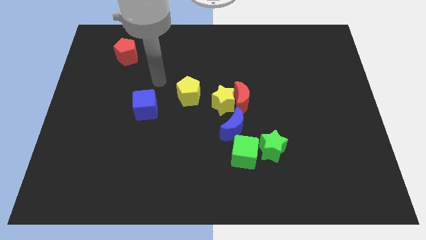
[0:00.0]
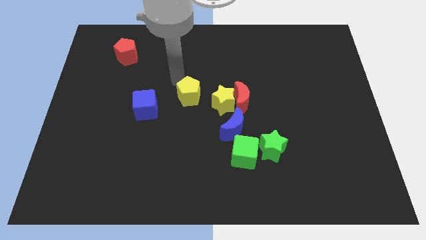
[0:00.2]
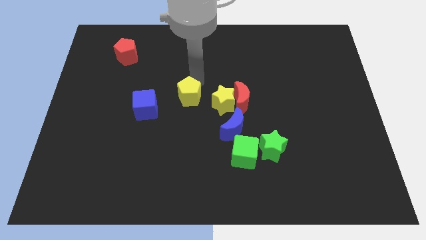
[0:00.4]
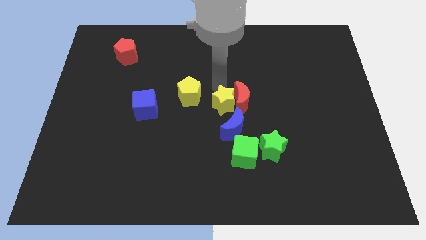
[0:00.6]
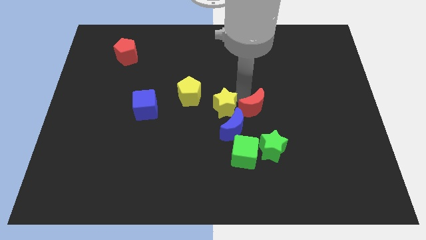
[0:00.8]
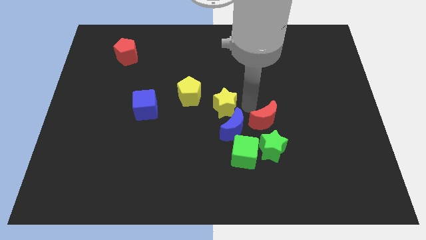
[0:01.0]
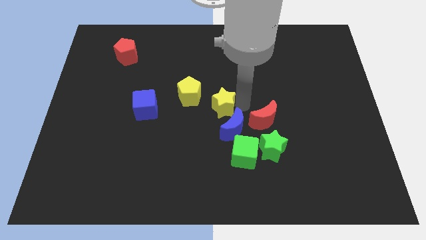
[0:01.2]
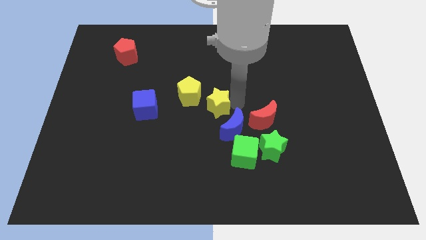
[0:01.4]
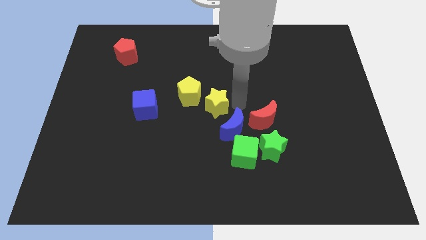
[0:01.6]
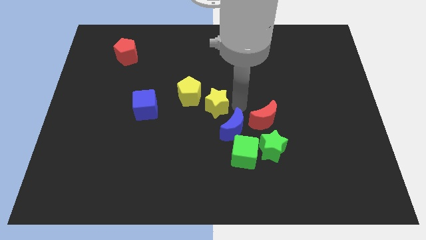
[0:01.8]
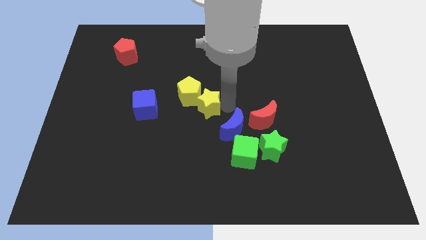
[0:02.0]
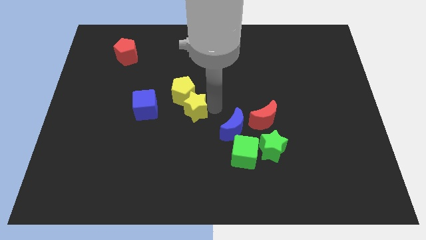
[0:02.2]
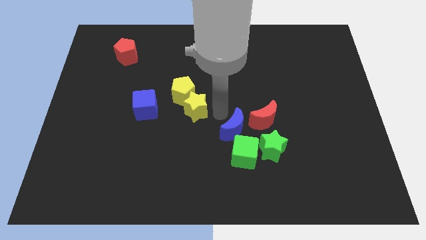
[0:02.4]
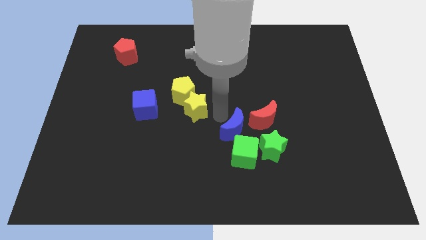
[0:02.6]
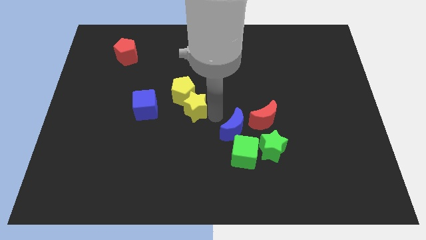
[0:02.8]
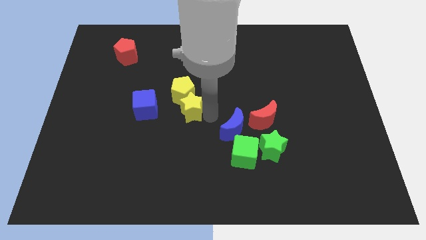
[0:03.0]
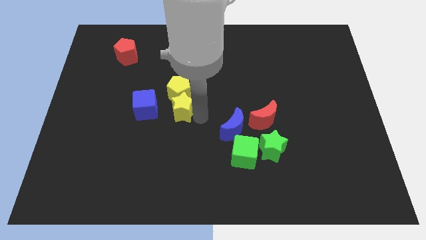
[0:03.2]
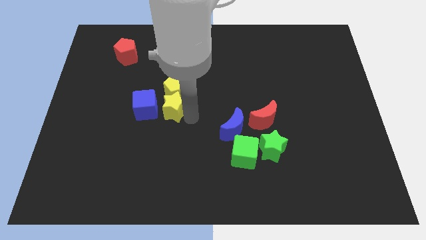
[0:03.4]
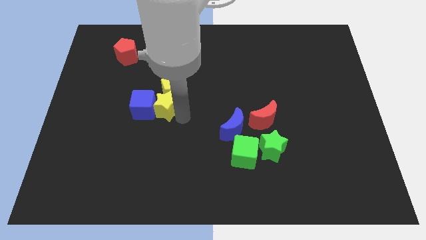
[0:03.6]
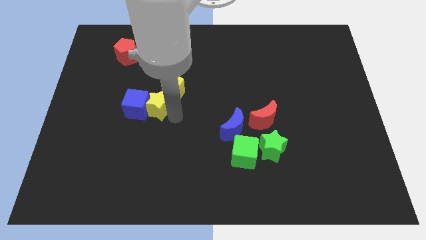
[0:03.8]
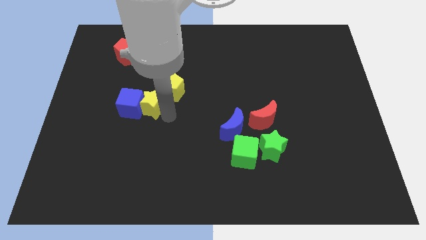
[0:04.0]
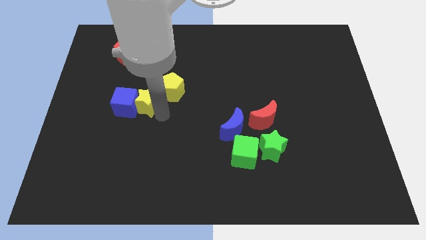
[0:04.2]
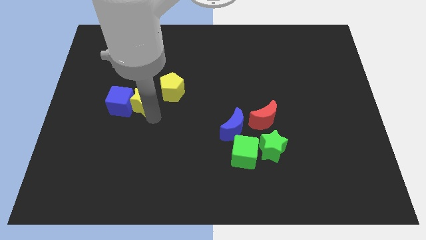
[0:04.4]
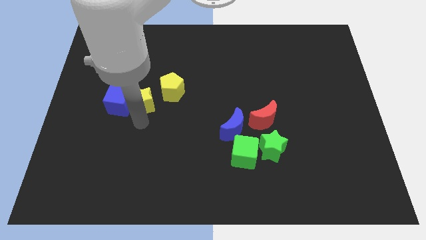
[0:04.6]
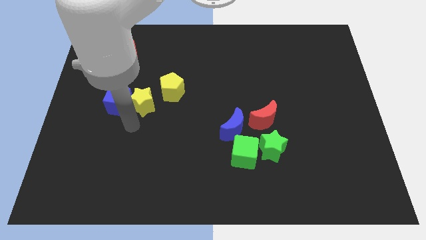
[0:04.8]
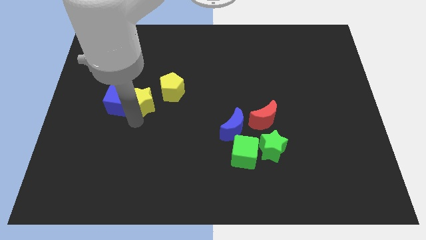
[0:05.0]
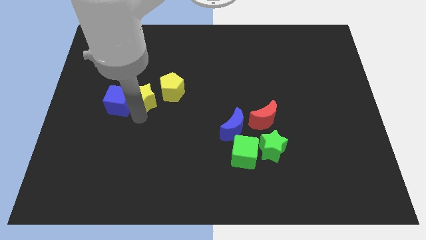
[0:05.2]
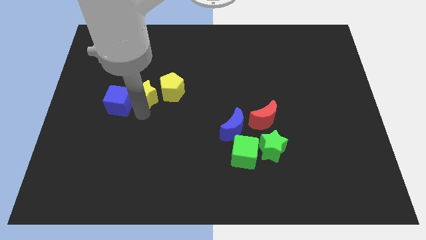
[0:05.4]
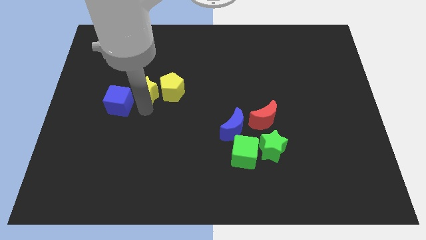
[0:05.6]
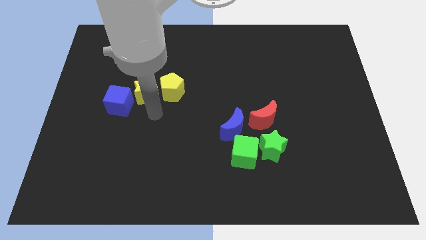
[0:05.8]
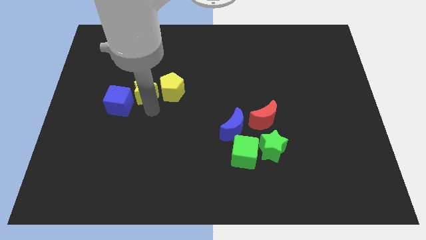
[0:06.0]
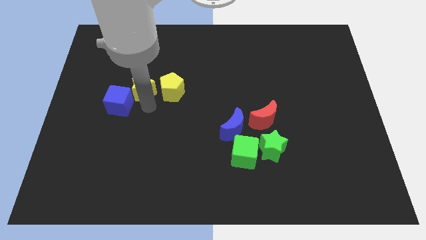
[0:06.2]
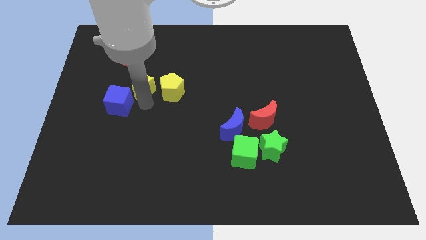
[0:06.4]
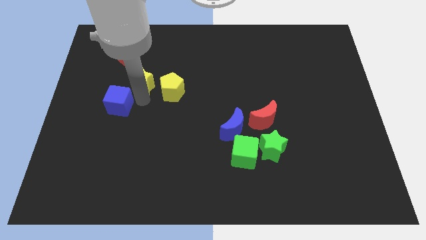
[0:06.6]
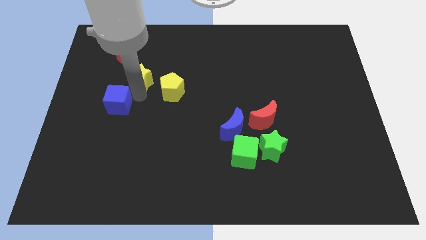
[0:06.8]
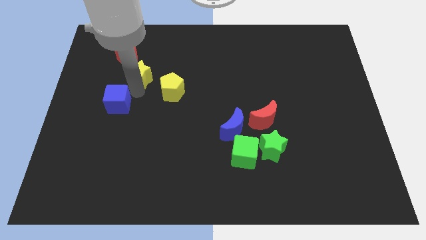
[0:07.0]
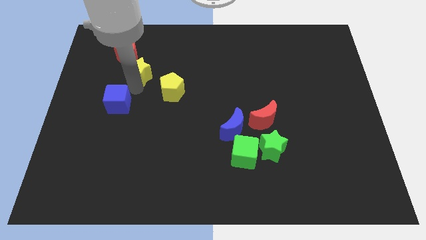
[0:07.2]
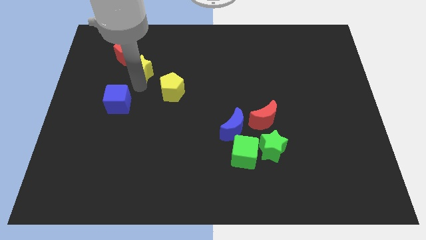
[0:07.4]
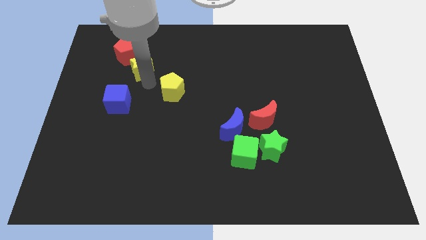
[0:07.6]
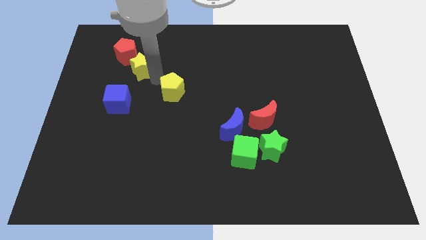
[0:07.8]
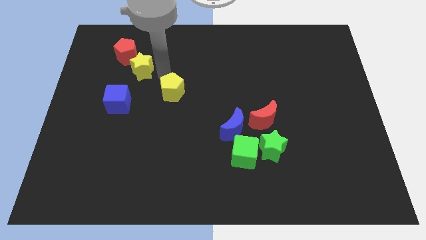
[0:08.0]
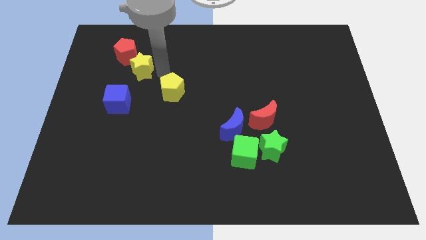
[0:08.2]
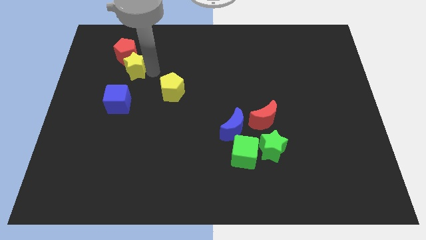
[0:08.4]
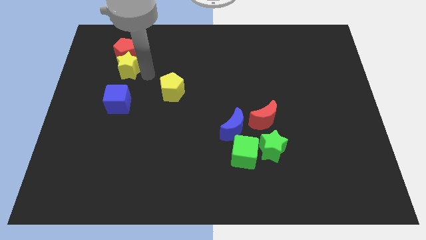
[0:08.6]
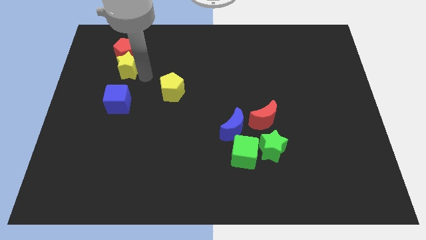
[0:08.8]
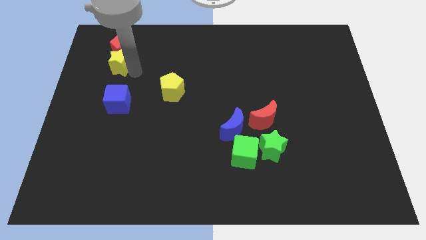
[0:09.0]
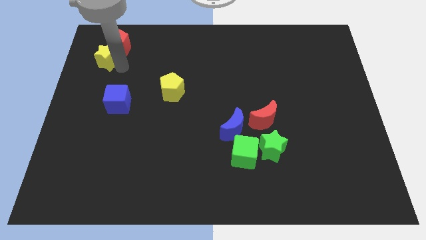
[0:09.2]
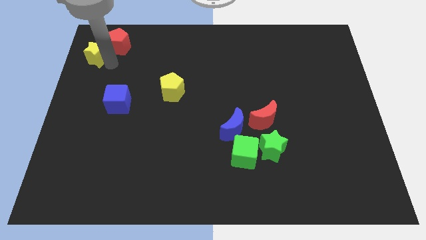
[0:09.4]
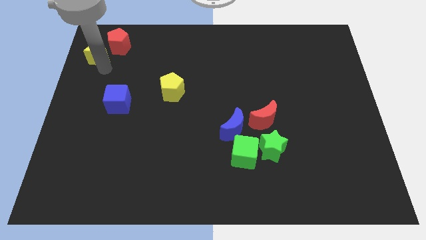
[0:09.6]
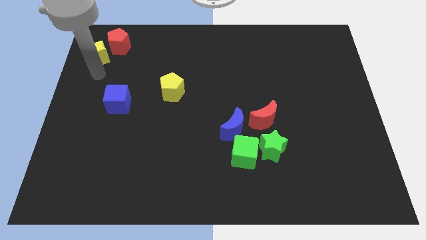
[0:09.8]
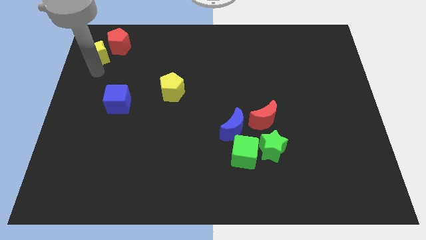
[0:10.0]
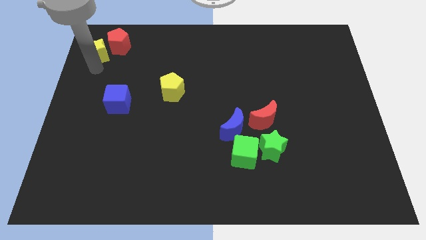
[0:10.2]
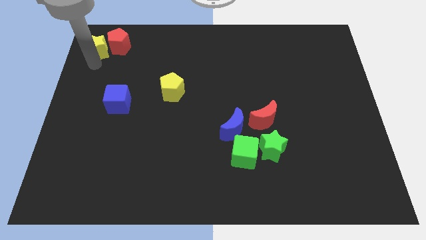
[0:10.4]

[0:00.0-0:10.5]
move the yellow star to the upper left corner
